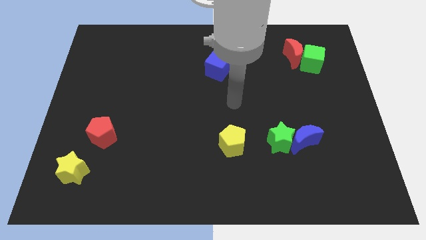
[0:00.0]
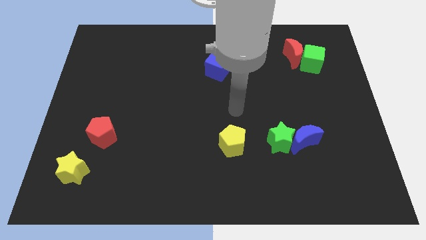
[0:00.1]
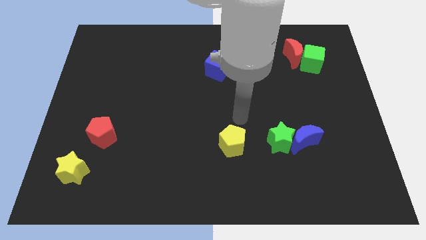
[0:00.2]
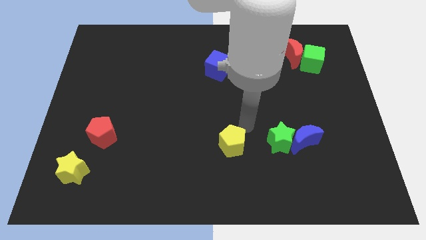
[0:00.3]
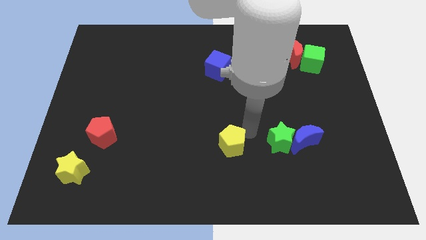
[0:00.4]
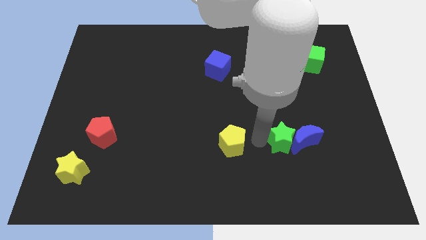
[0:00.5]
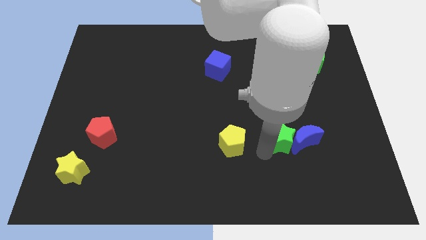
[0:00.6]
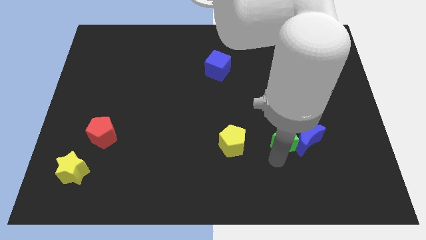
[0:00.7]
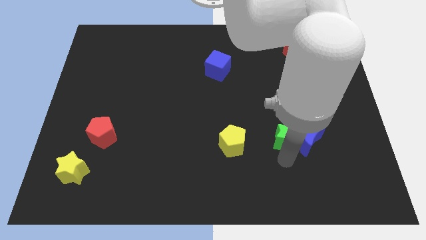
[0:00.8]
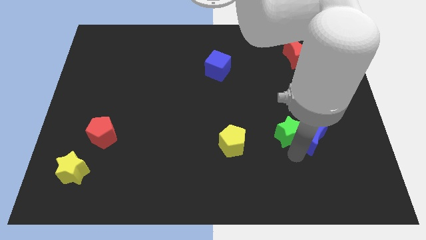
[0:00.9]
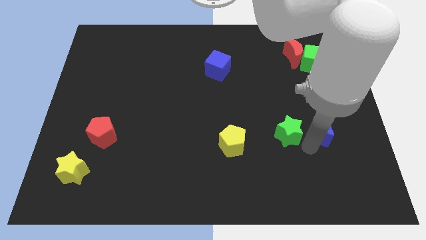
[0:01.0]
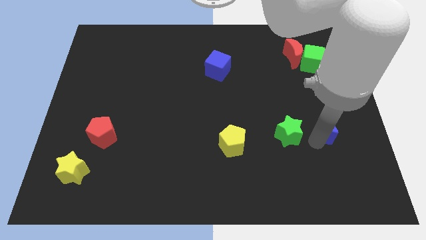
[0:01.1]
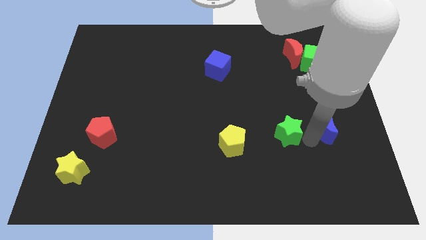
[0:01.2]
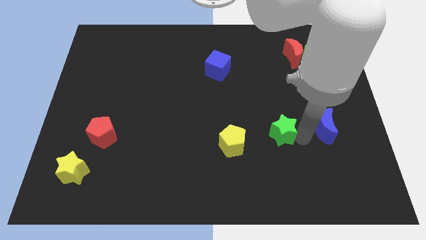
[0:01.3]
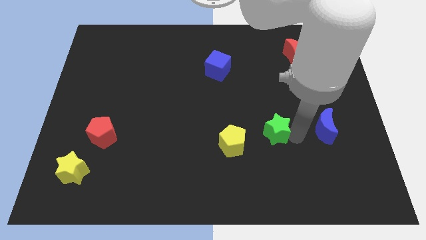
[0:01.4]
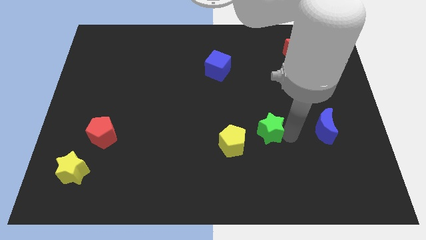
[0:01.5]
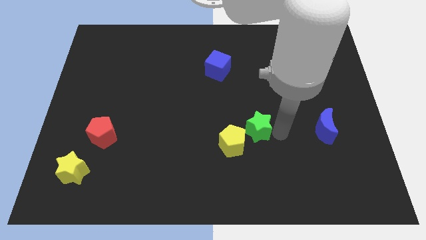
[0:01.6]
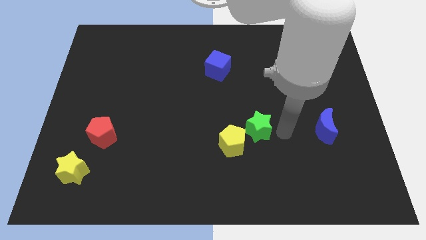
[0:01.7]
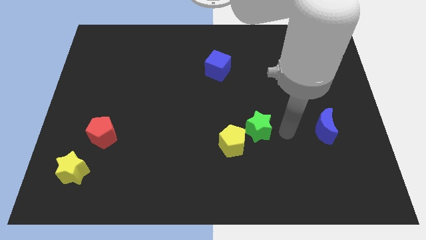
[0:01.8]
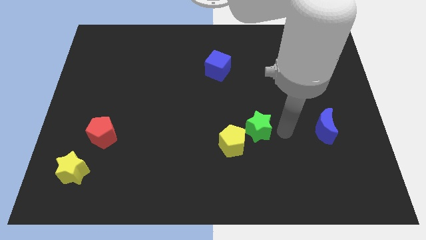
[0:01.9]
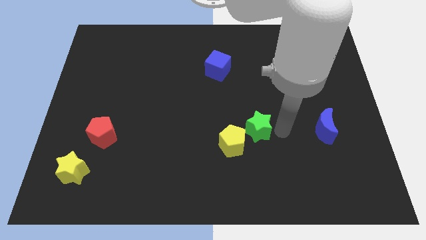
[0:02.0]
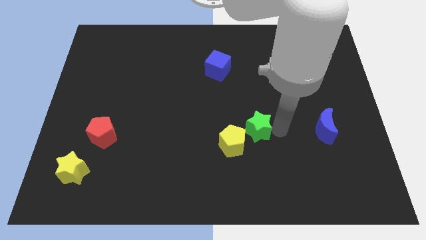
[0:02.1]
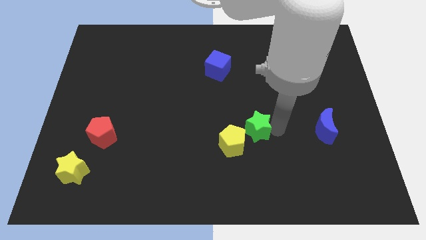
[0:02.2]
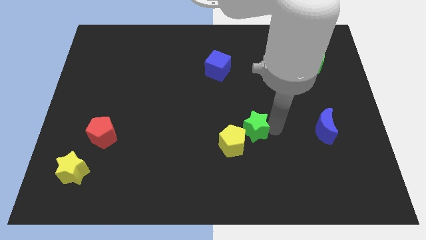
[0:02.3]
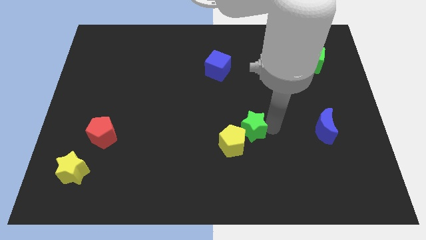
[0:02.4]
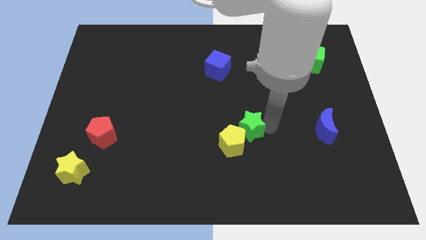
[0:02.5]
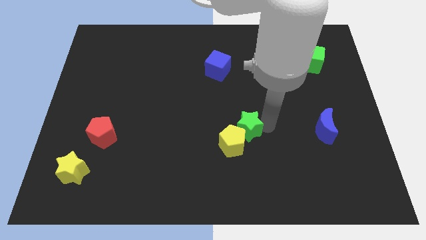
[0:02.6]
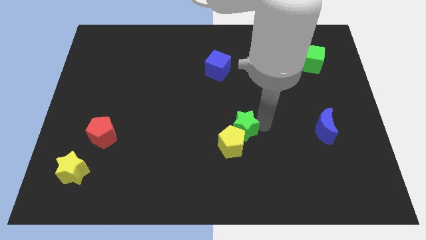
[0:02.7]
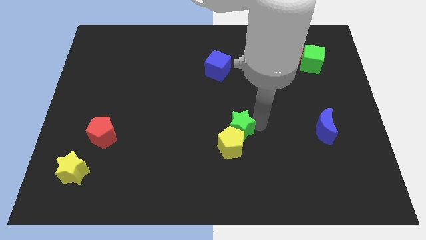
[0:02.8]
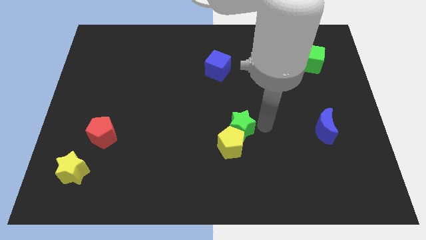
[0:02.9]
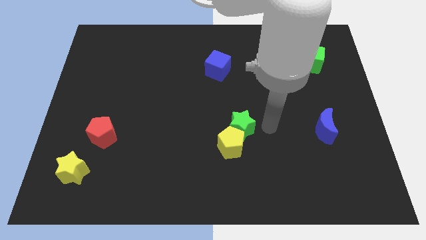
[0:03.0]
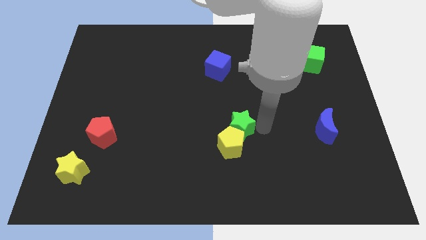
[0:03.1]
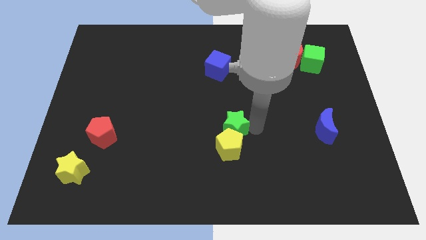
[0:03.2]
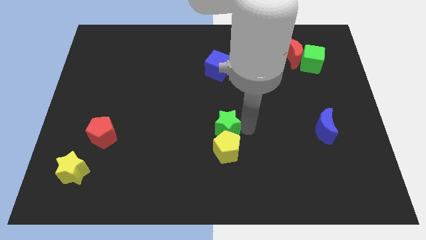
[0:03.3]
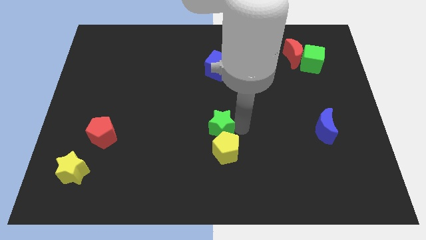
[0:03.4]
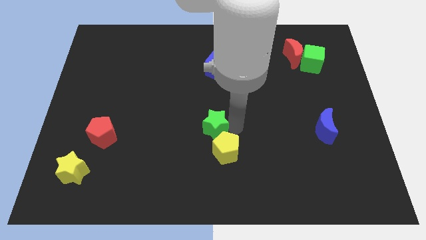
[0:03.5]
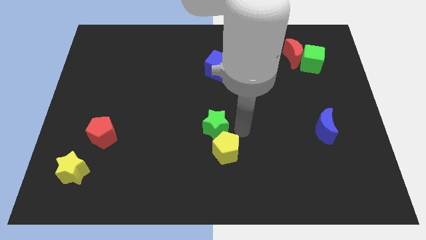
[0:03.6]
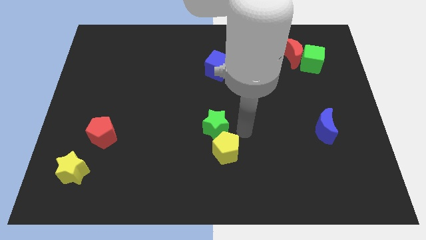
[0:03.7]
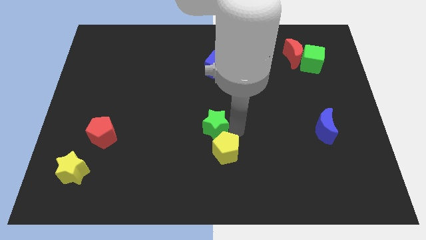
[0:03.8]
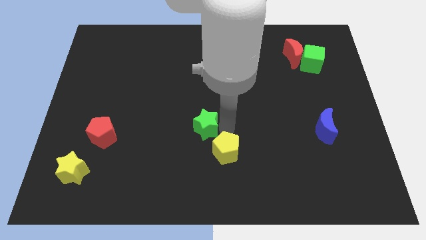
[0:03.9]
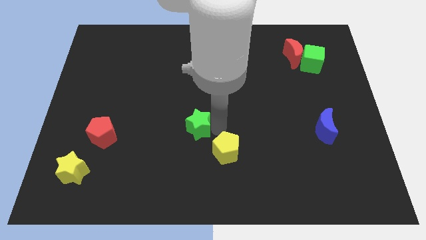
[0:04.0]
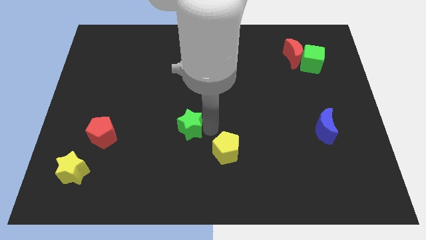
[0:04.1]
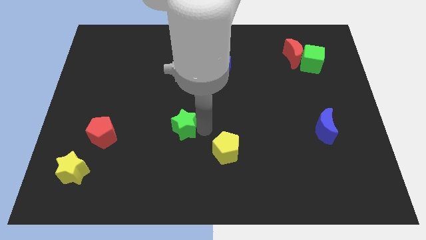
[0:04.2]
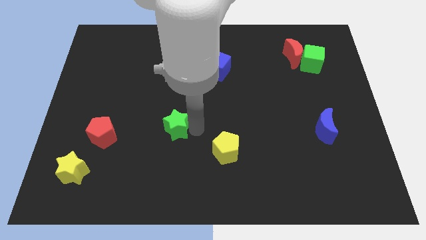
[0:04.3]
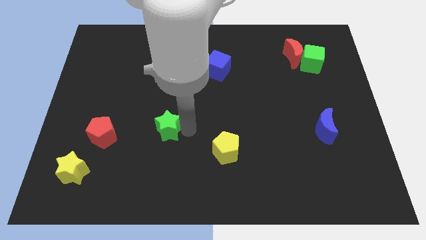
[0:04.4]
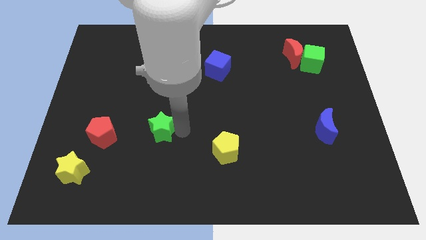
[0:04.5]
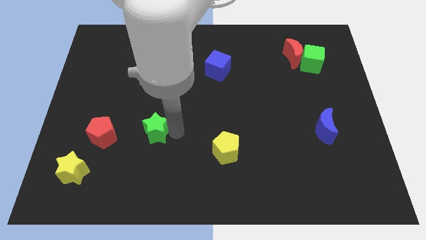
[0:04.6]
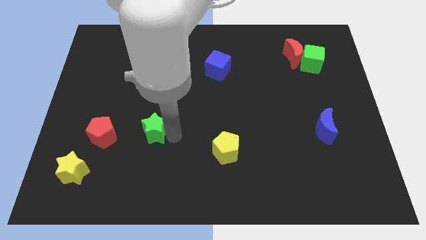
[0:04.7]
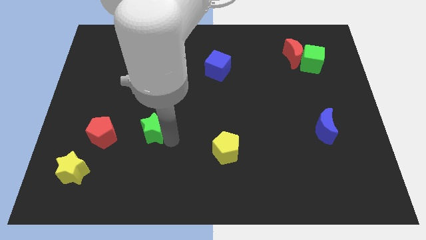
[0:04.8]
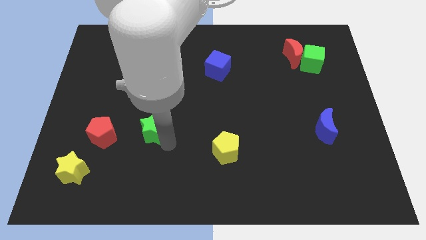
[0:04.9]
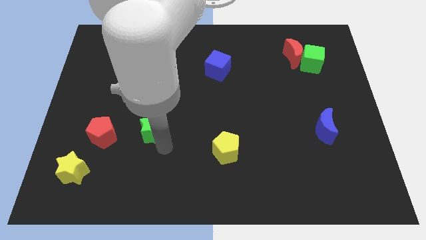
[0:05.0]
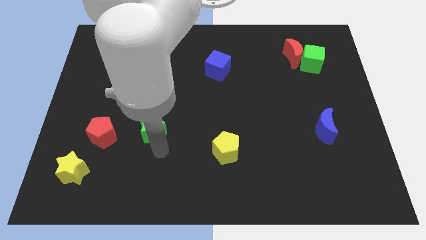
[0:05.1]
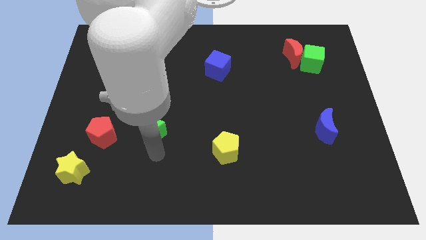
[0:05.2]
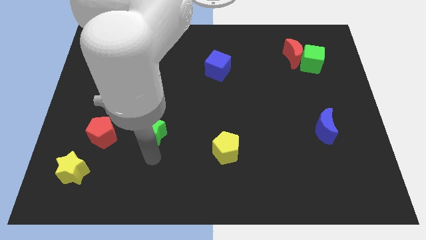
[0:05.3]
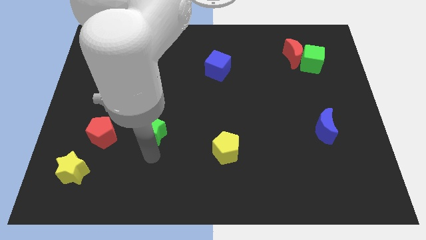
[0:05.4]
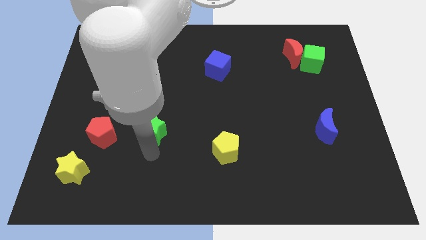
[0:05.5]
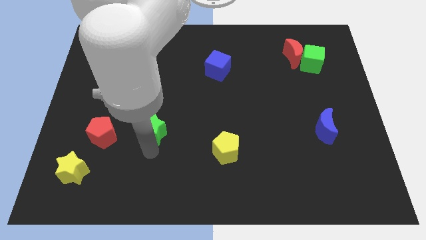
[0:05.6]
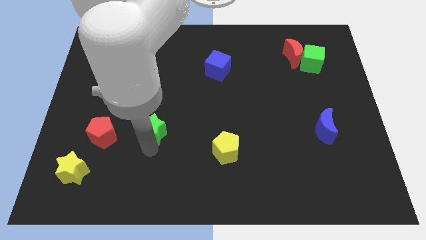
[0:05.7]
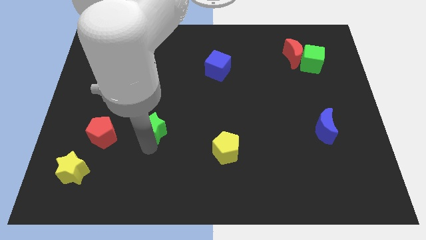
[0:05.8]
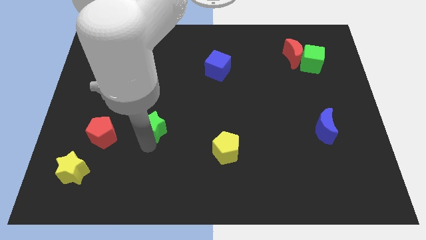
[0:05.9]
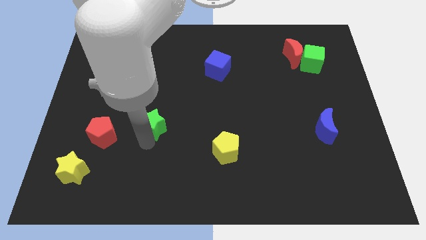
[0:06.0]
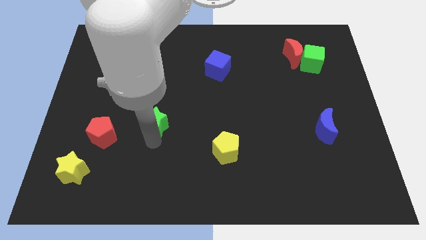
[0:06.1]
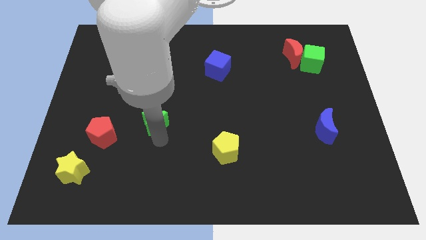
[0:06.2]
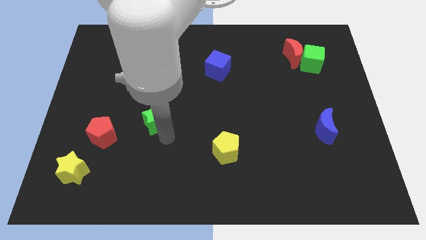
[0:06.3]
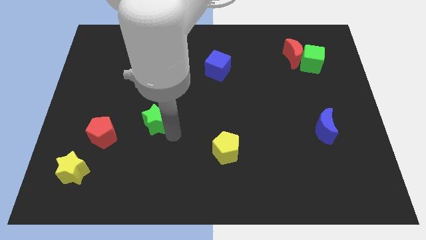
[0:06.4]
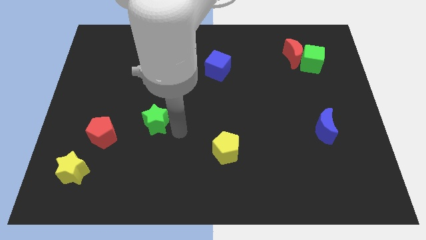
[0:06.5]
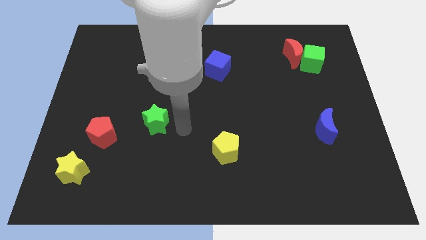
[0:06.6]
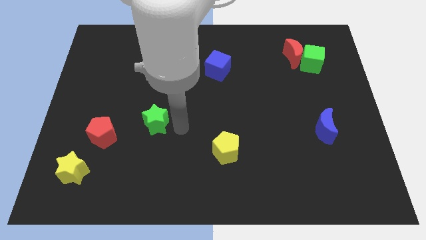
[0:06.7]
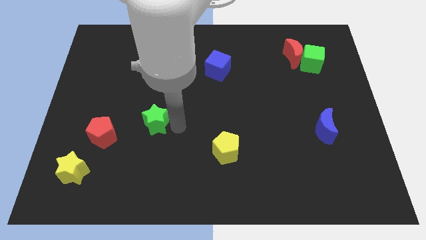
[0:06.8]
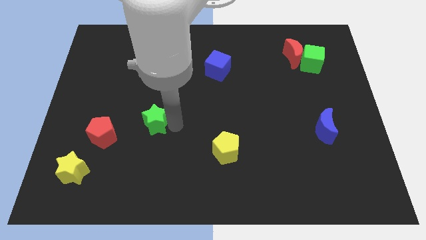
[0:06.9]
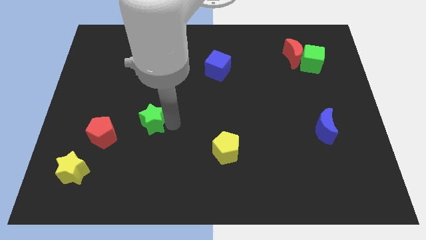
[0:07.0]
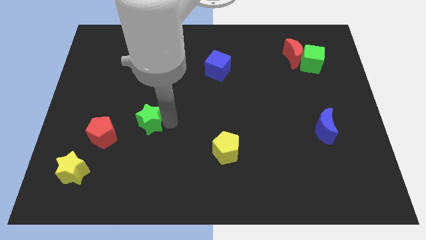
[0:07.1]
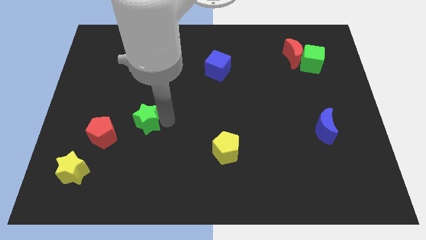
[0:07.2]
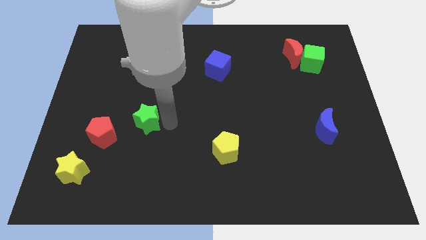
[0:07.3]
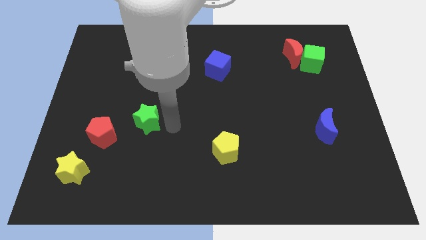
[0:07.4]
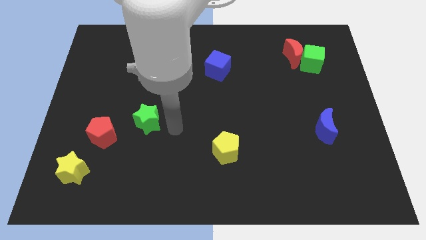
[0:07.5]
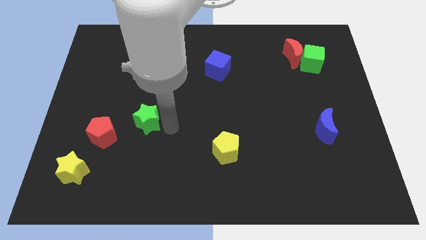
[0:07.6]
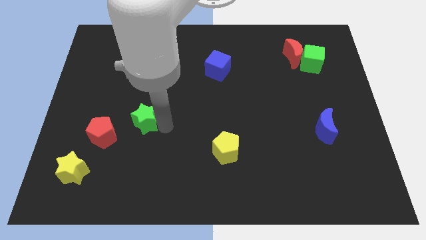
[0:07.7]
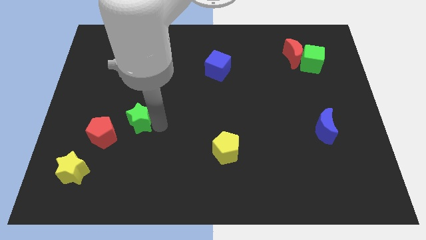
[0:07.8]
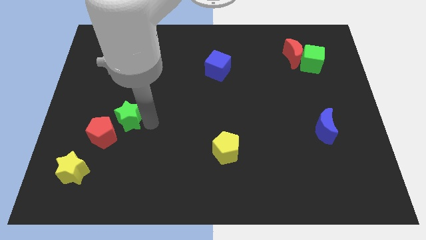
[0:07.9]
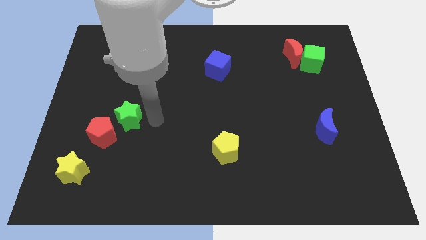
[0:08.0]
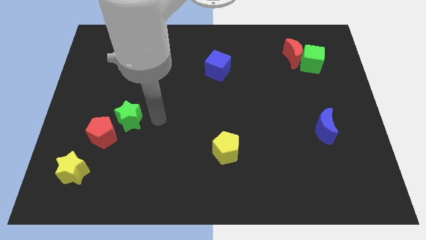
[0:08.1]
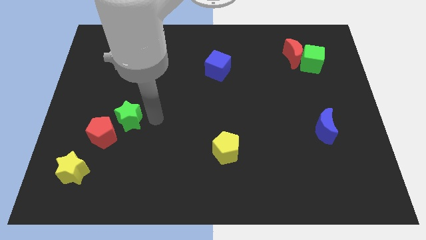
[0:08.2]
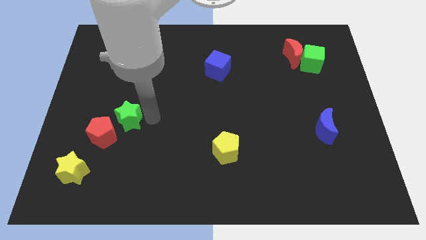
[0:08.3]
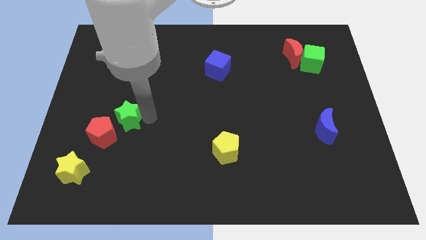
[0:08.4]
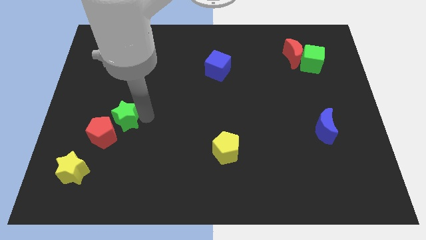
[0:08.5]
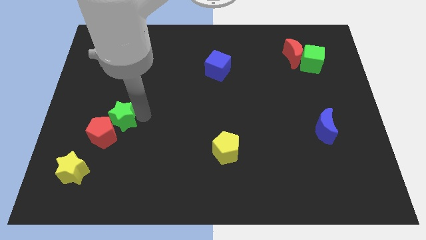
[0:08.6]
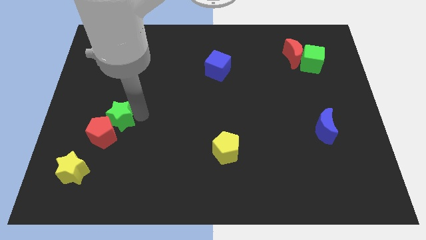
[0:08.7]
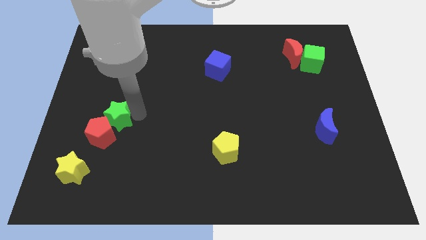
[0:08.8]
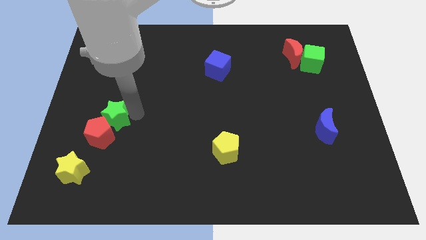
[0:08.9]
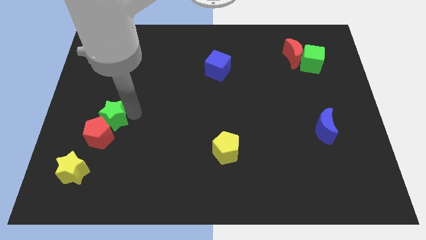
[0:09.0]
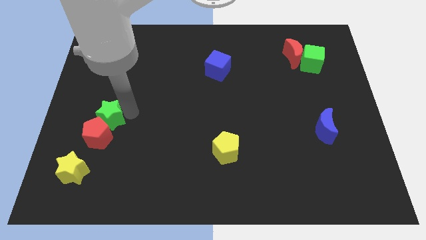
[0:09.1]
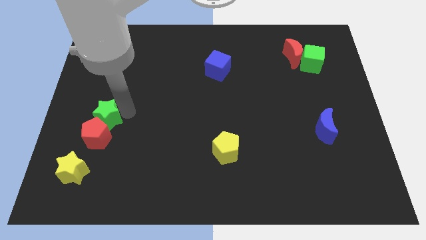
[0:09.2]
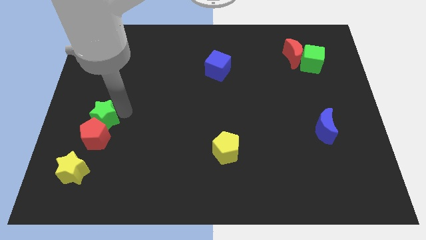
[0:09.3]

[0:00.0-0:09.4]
put the green star to the top side of the yellow star
